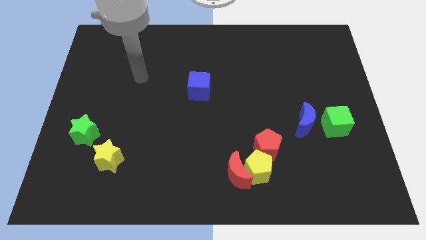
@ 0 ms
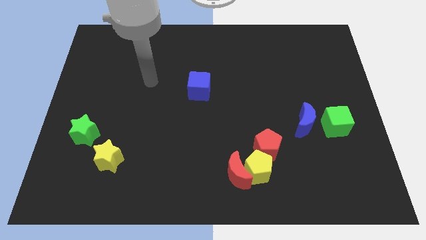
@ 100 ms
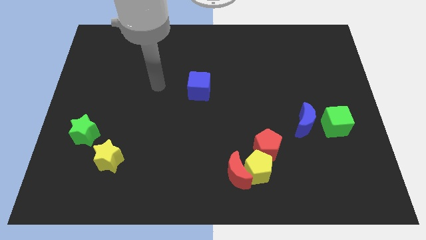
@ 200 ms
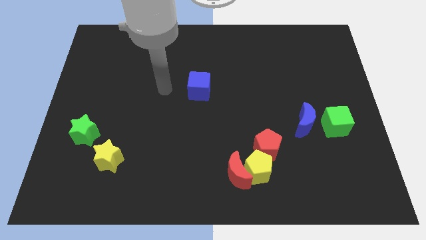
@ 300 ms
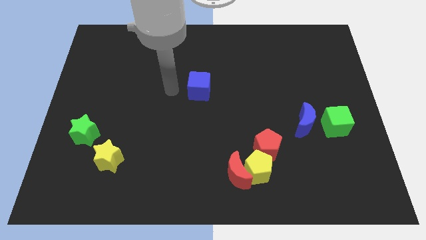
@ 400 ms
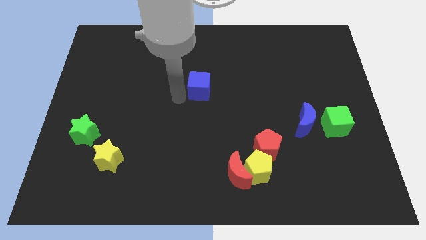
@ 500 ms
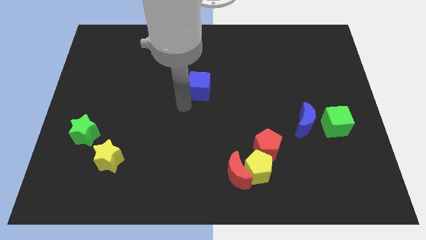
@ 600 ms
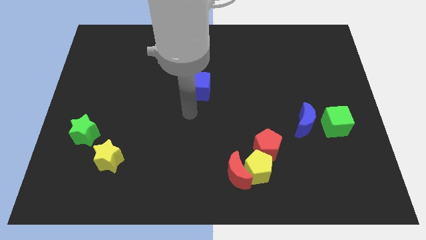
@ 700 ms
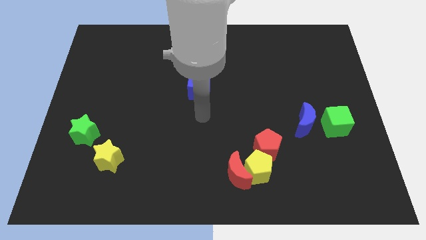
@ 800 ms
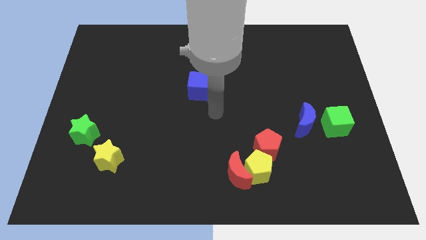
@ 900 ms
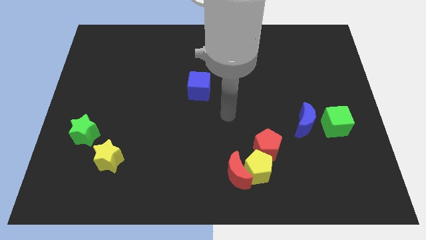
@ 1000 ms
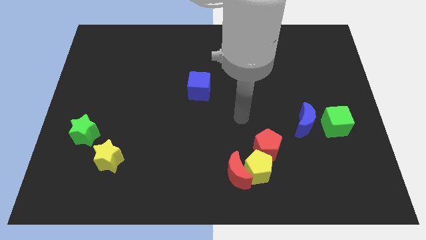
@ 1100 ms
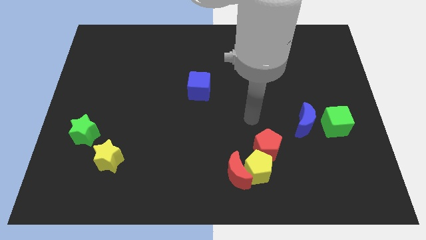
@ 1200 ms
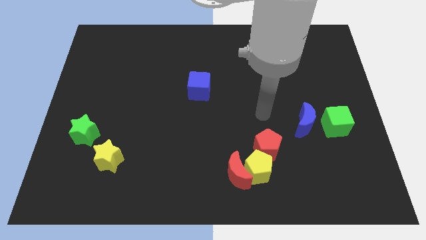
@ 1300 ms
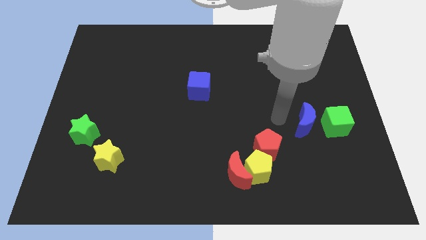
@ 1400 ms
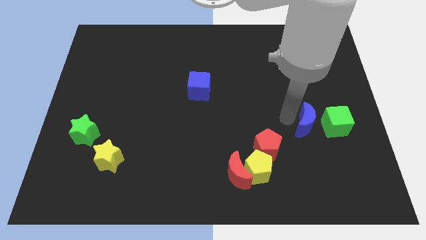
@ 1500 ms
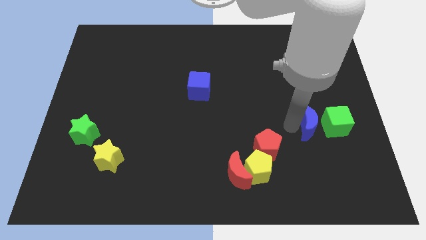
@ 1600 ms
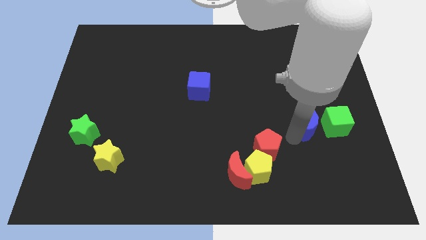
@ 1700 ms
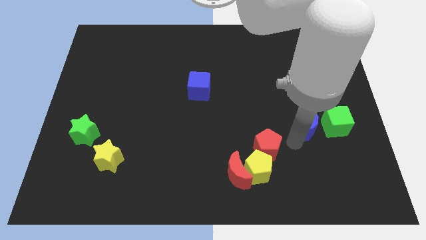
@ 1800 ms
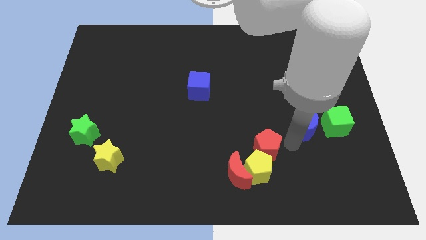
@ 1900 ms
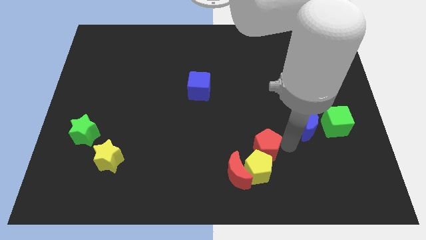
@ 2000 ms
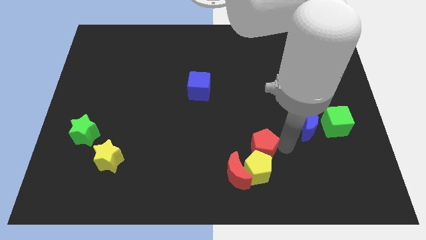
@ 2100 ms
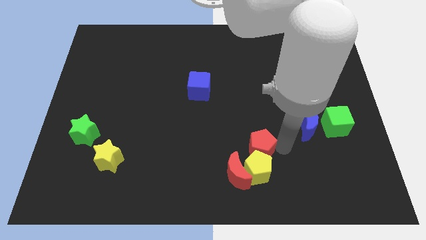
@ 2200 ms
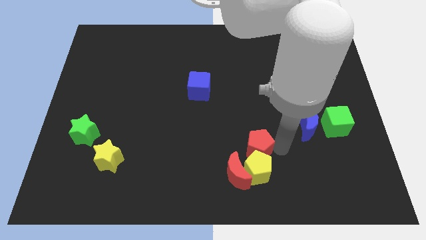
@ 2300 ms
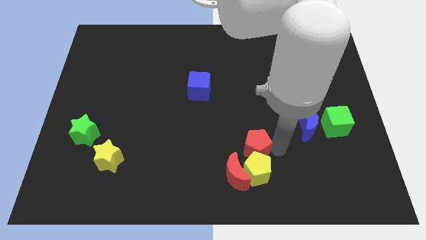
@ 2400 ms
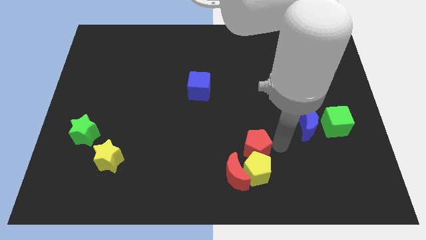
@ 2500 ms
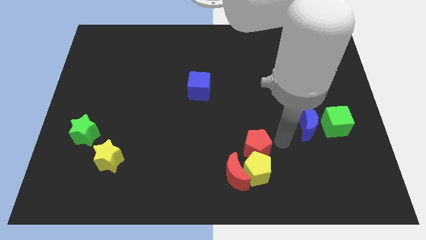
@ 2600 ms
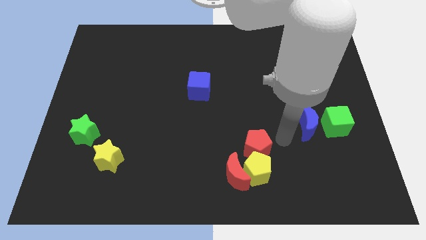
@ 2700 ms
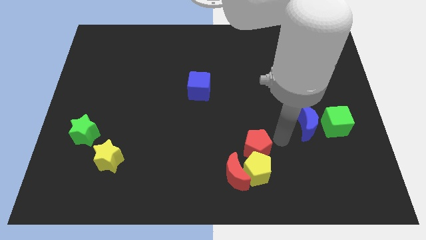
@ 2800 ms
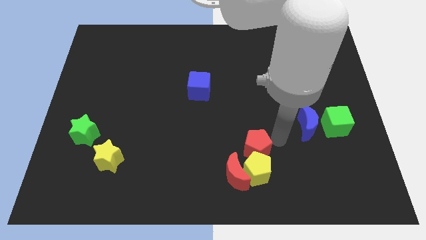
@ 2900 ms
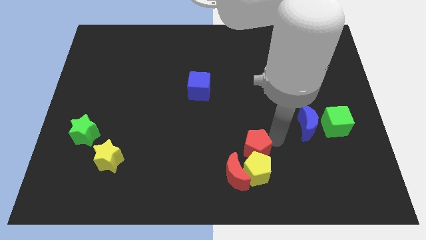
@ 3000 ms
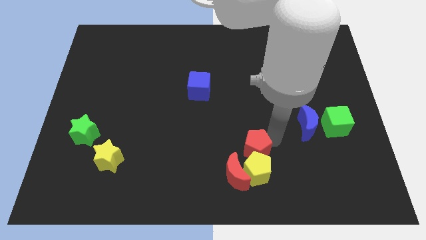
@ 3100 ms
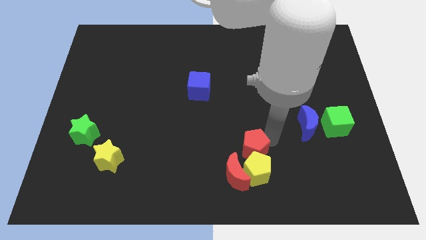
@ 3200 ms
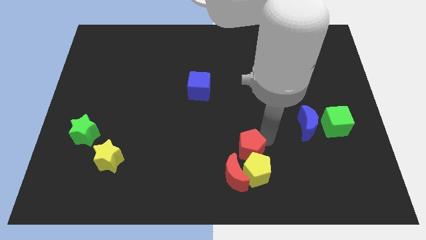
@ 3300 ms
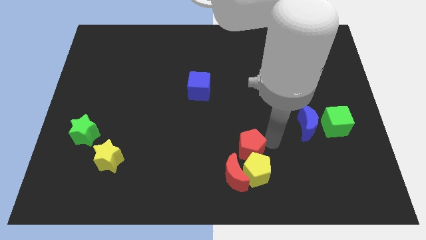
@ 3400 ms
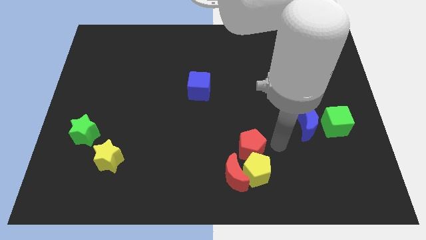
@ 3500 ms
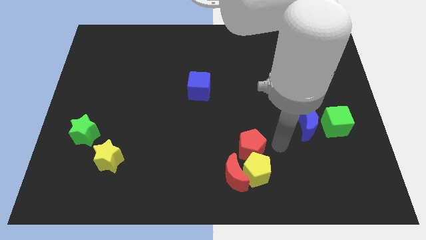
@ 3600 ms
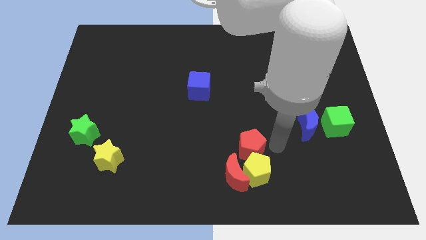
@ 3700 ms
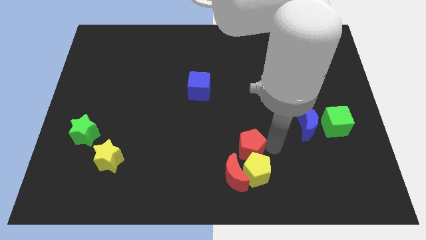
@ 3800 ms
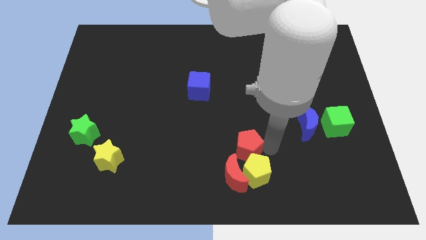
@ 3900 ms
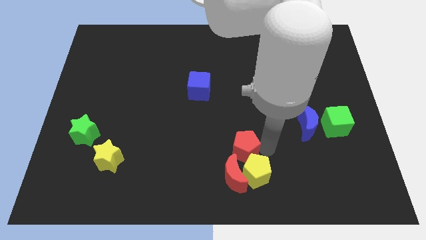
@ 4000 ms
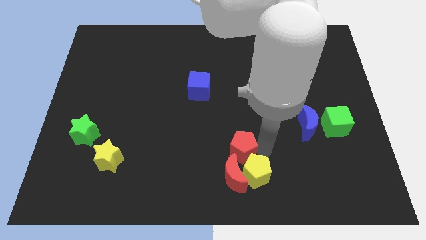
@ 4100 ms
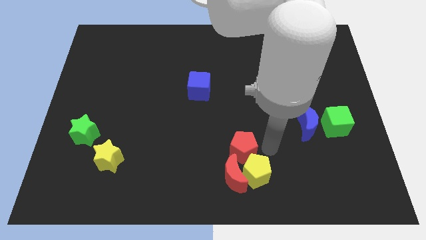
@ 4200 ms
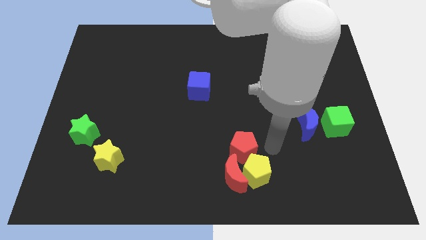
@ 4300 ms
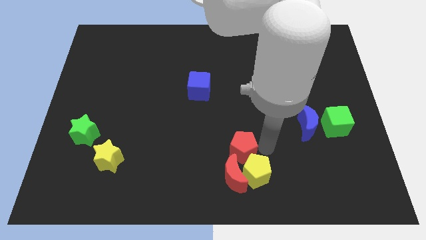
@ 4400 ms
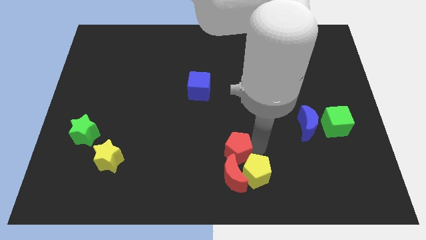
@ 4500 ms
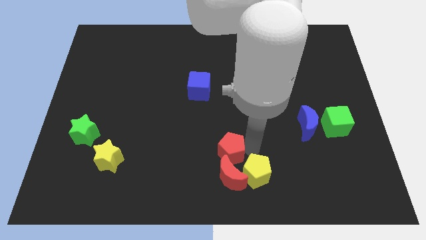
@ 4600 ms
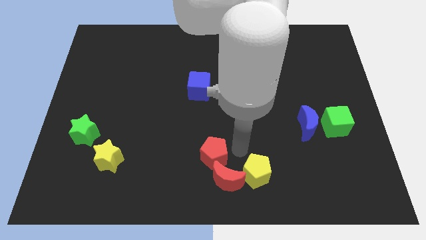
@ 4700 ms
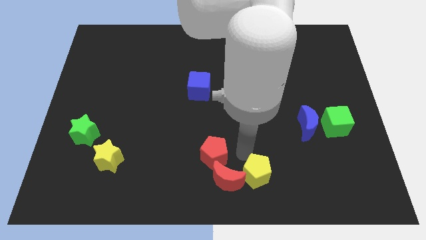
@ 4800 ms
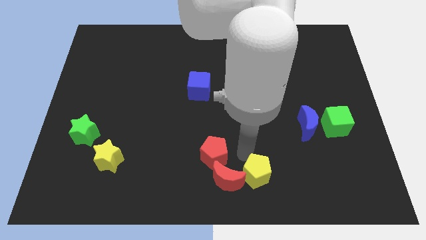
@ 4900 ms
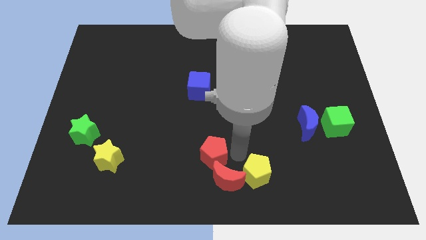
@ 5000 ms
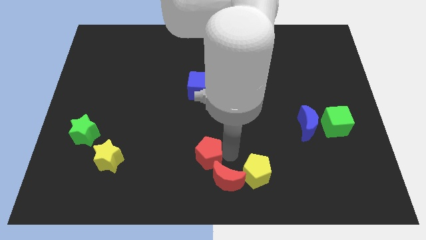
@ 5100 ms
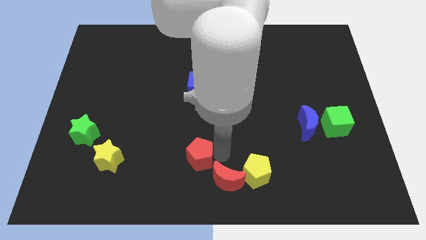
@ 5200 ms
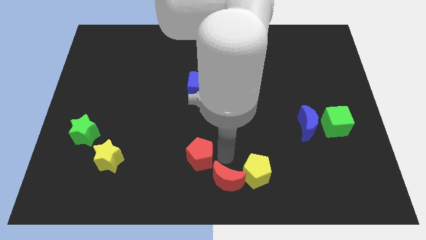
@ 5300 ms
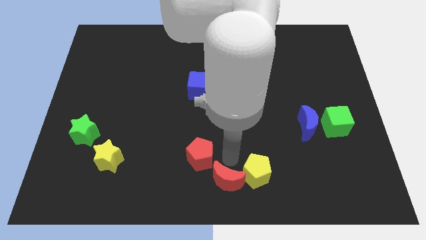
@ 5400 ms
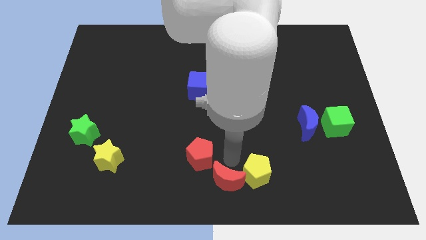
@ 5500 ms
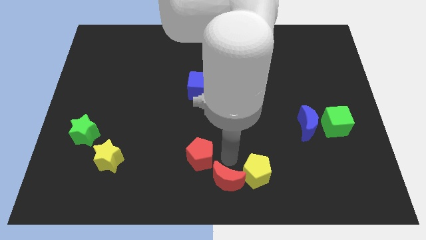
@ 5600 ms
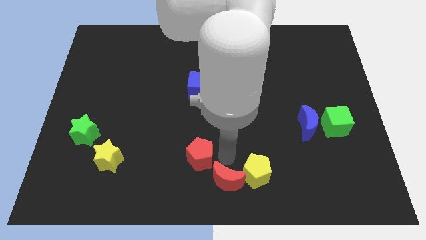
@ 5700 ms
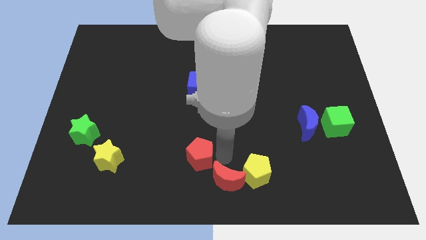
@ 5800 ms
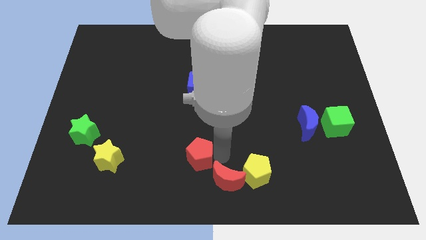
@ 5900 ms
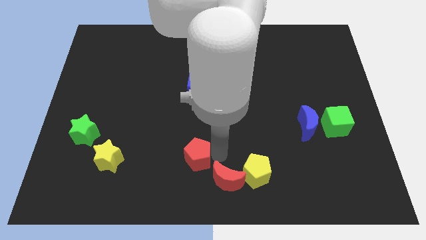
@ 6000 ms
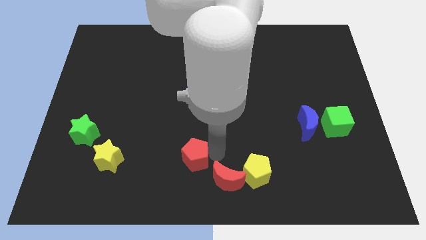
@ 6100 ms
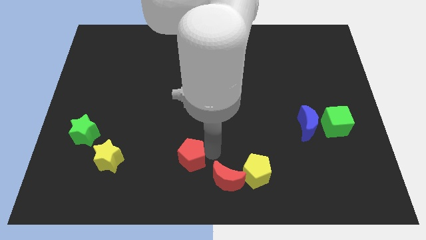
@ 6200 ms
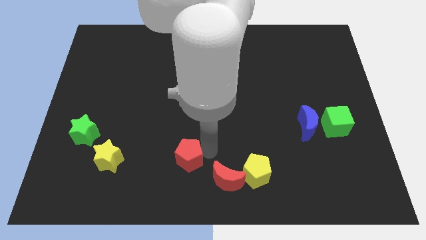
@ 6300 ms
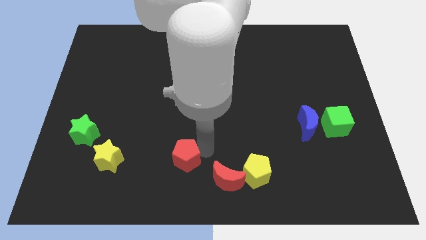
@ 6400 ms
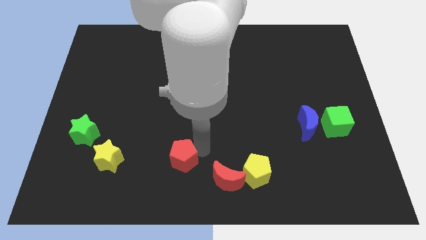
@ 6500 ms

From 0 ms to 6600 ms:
slide the red pentagon just right of the yellow star

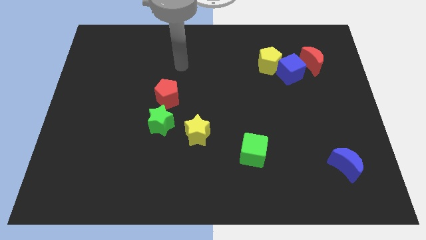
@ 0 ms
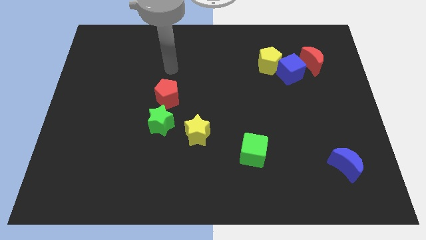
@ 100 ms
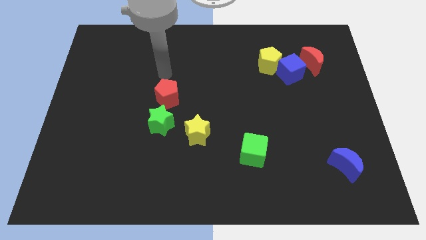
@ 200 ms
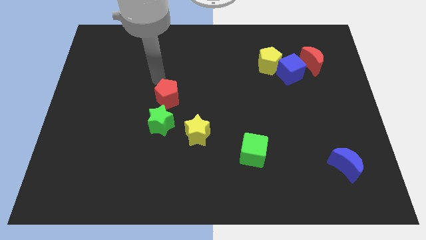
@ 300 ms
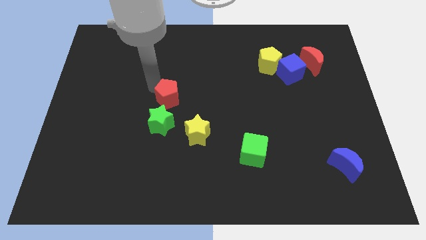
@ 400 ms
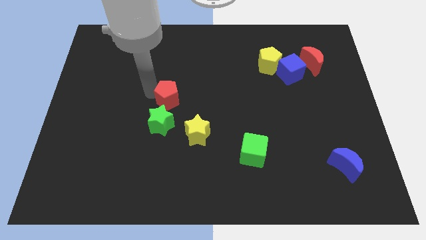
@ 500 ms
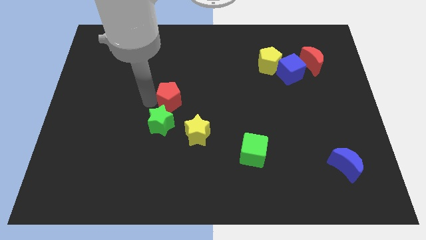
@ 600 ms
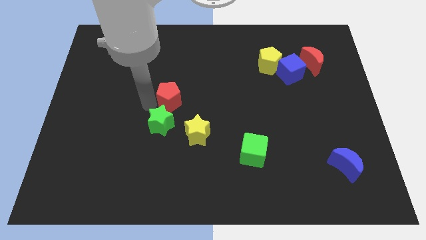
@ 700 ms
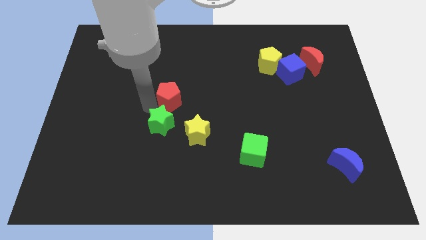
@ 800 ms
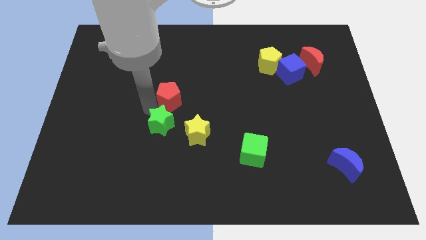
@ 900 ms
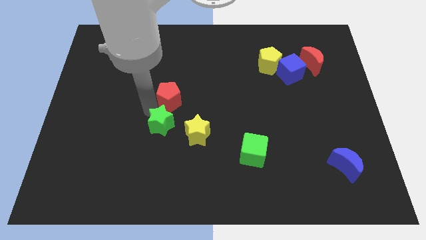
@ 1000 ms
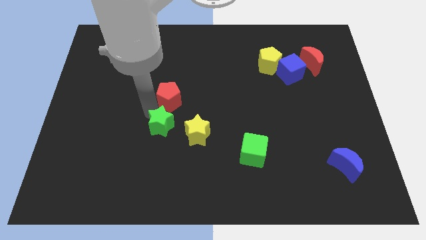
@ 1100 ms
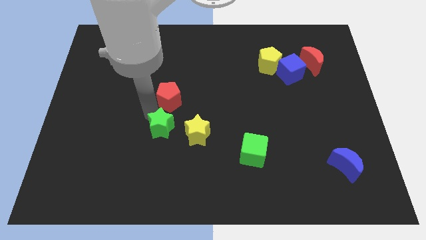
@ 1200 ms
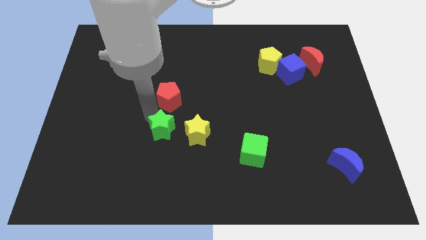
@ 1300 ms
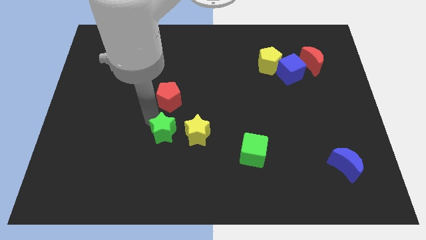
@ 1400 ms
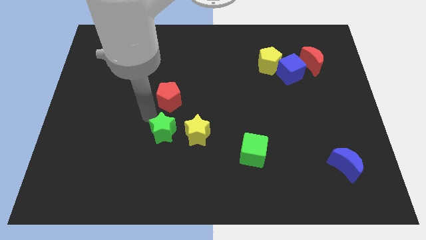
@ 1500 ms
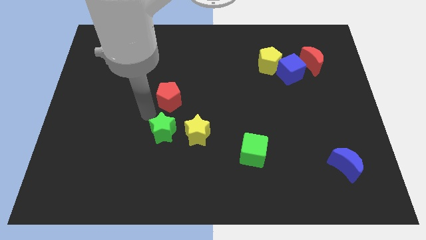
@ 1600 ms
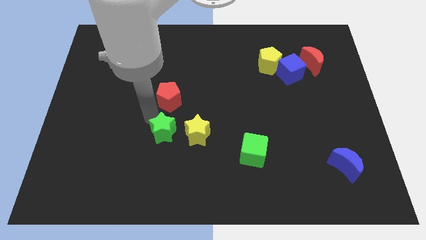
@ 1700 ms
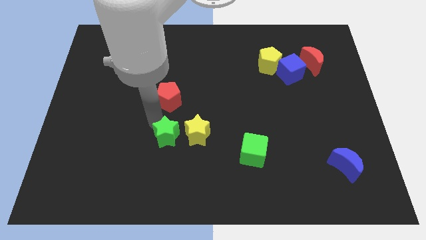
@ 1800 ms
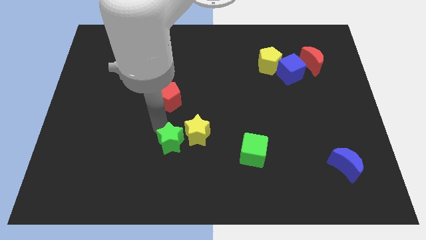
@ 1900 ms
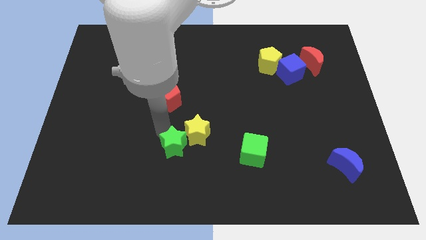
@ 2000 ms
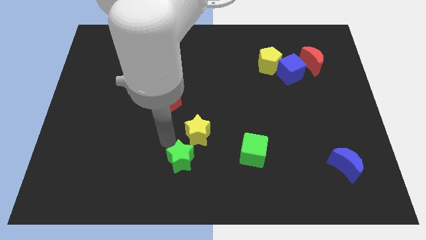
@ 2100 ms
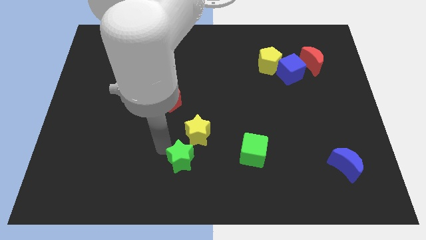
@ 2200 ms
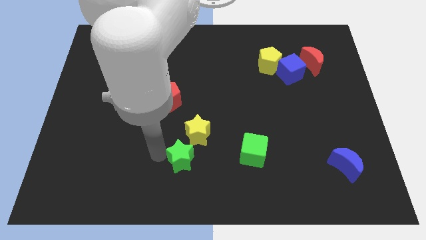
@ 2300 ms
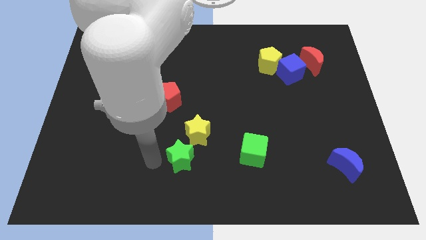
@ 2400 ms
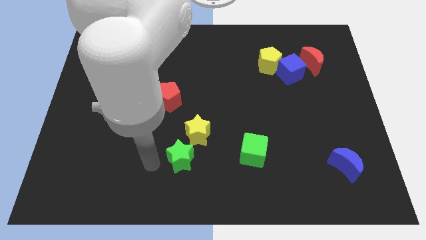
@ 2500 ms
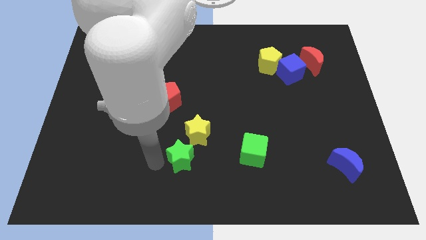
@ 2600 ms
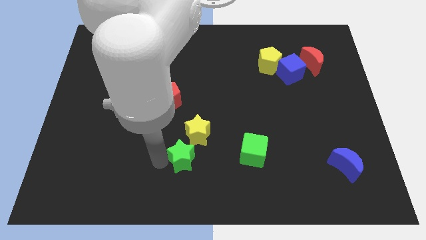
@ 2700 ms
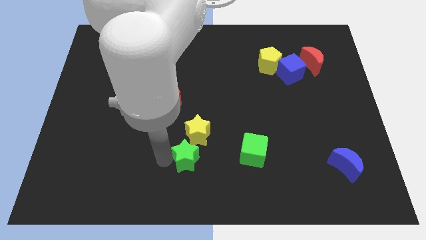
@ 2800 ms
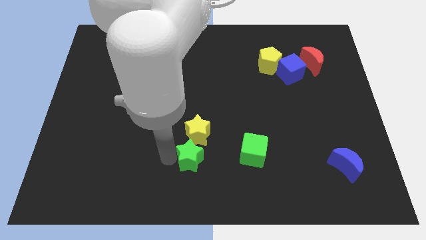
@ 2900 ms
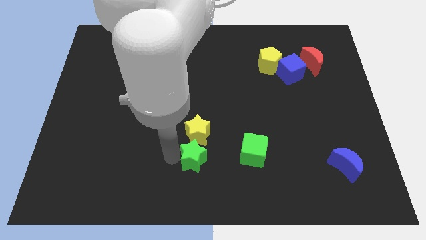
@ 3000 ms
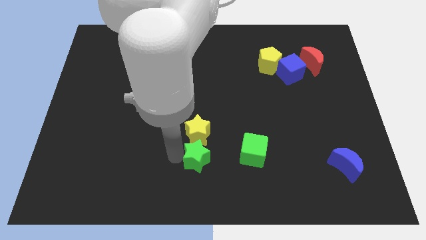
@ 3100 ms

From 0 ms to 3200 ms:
move the green star to the bottom right side of the yellow star
